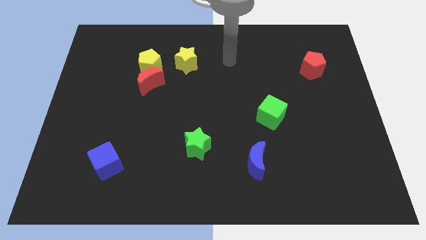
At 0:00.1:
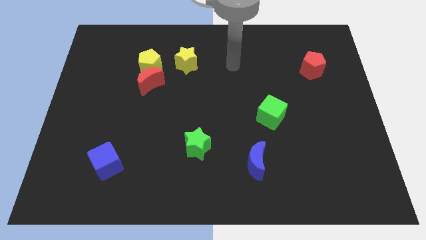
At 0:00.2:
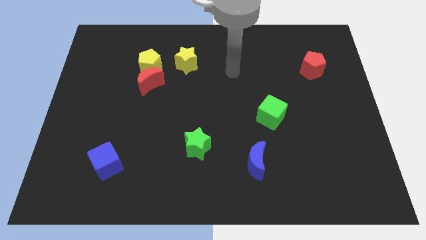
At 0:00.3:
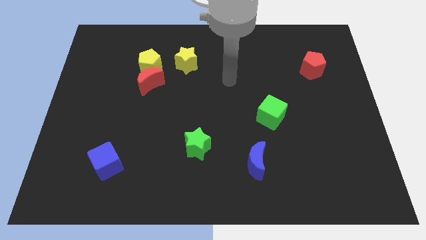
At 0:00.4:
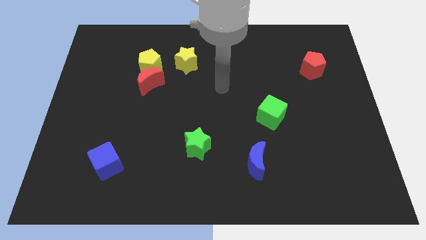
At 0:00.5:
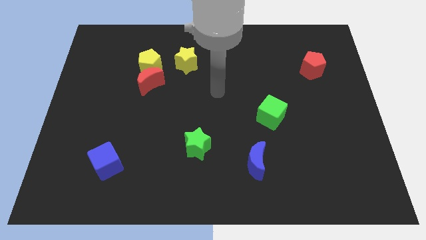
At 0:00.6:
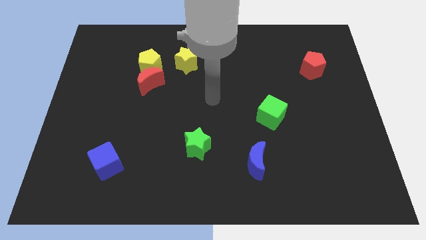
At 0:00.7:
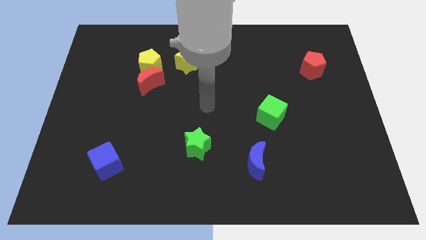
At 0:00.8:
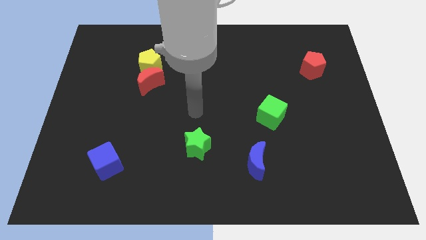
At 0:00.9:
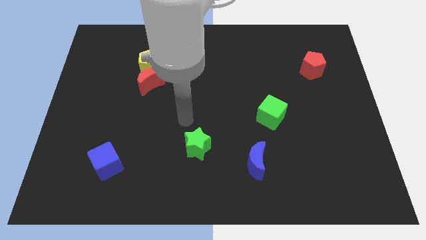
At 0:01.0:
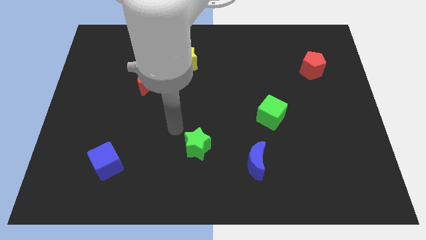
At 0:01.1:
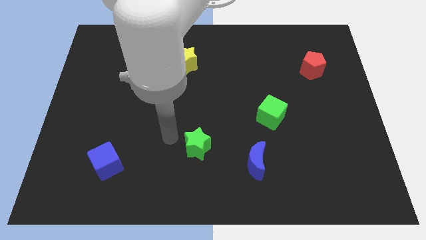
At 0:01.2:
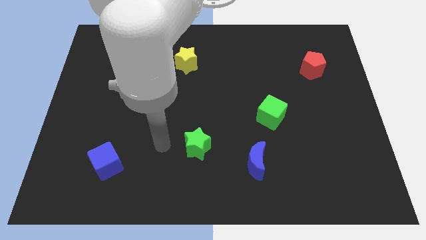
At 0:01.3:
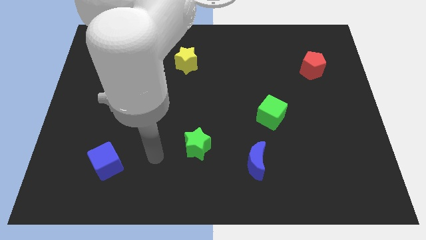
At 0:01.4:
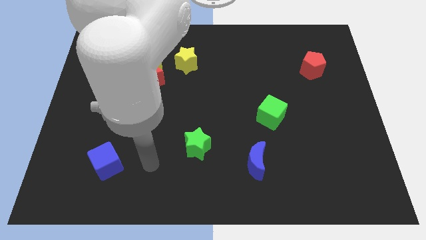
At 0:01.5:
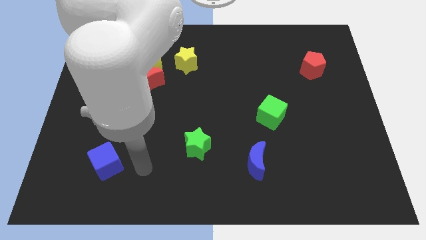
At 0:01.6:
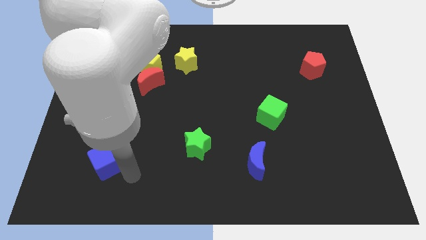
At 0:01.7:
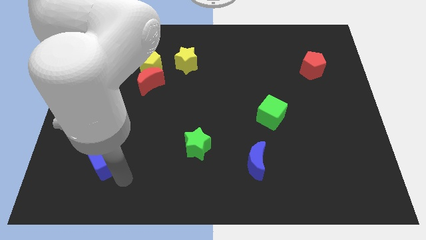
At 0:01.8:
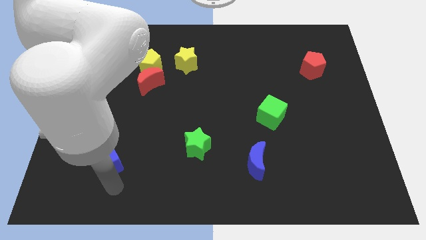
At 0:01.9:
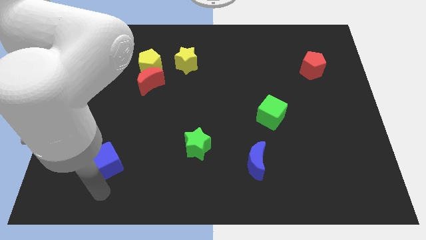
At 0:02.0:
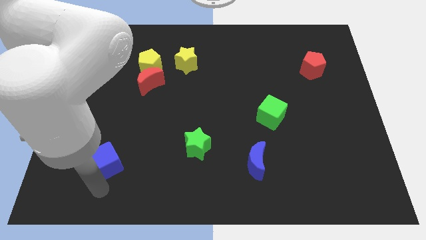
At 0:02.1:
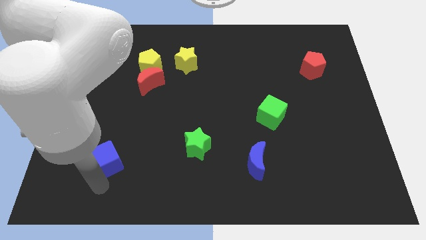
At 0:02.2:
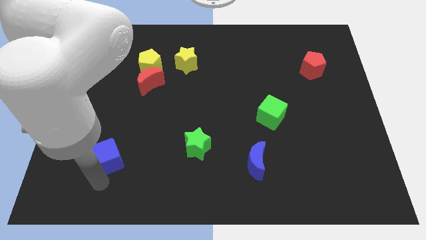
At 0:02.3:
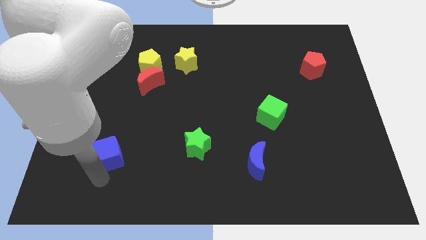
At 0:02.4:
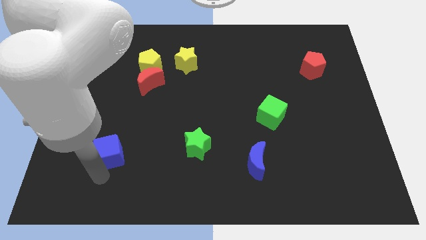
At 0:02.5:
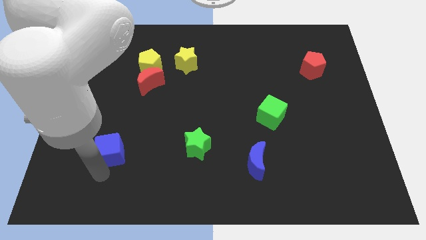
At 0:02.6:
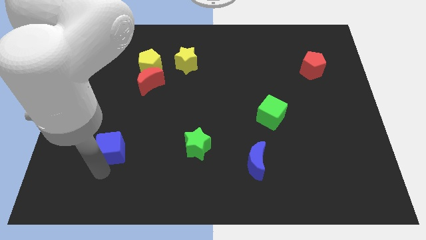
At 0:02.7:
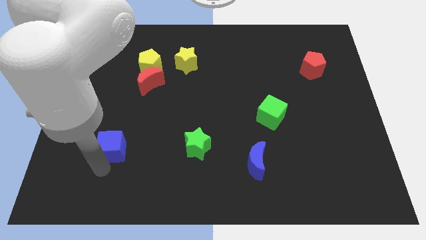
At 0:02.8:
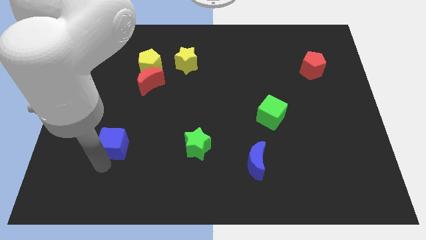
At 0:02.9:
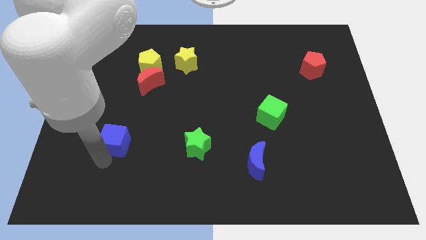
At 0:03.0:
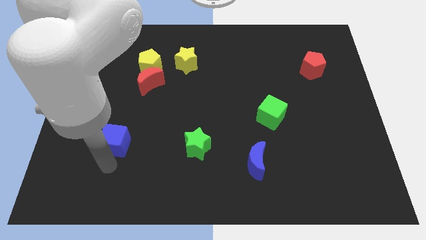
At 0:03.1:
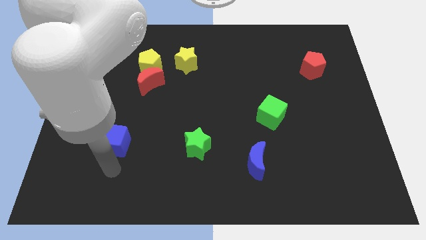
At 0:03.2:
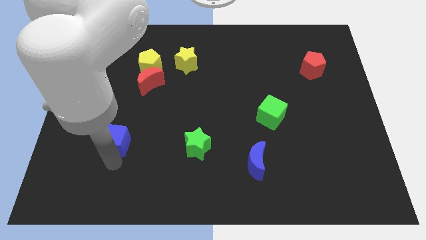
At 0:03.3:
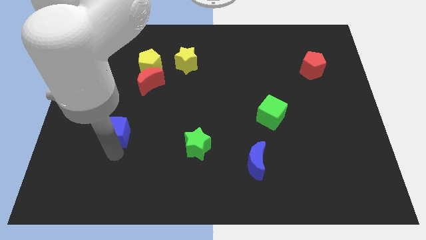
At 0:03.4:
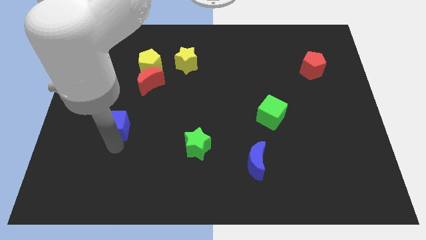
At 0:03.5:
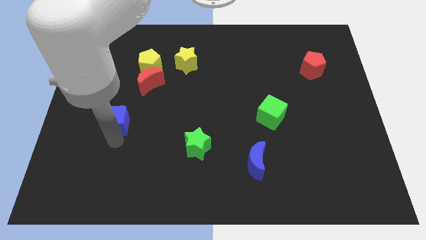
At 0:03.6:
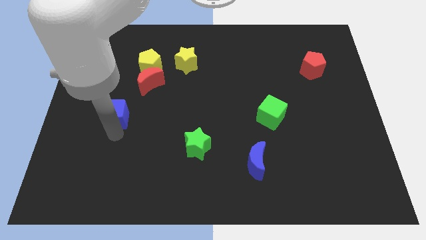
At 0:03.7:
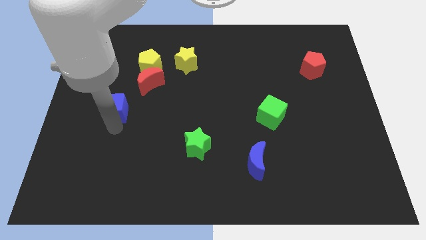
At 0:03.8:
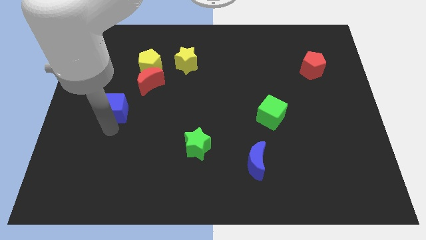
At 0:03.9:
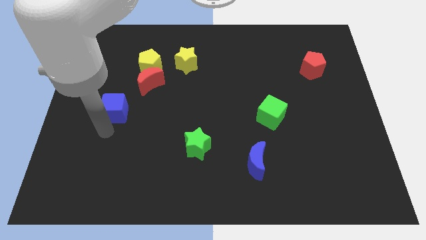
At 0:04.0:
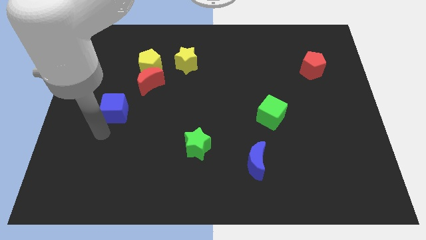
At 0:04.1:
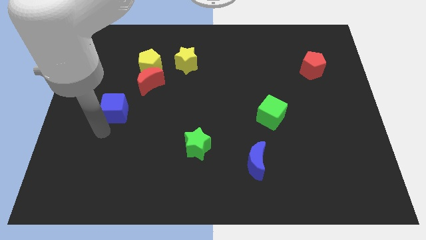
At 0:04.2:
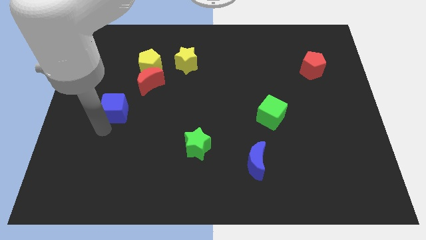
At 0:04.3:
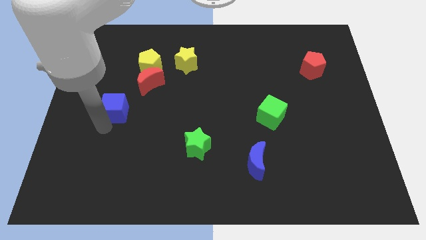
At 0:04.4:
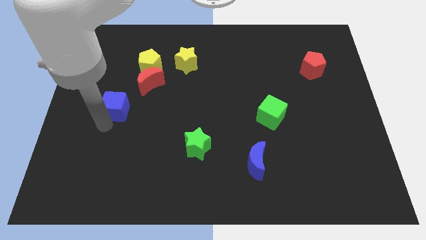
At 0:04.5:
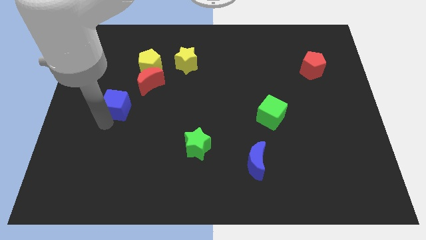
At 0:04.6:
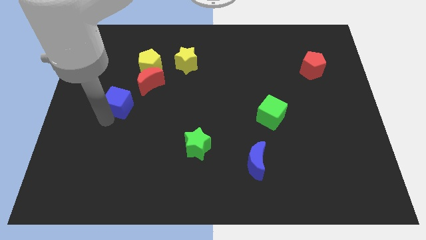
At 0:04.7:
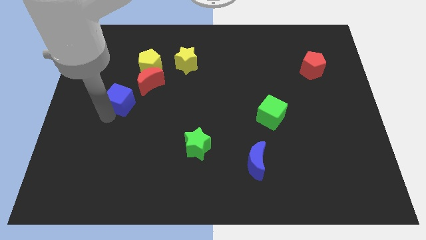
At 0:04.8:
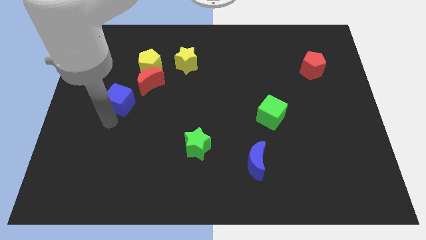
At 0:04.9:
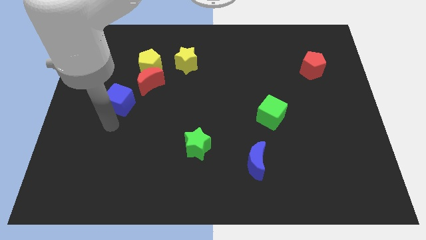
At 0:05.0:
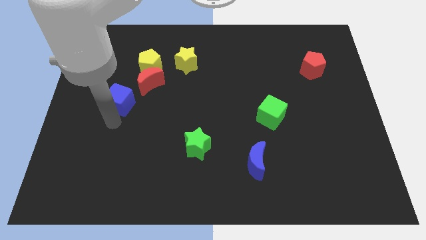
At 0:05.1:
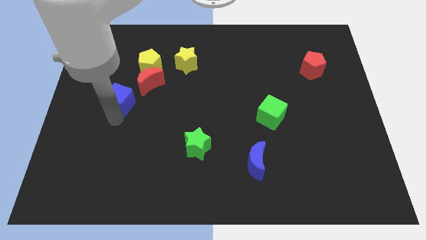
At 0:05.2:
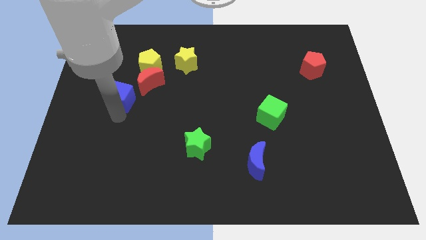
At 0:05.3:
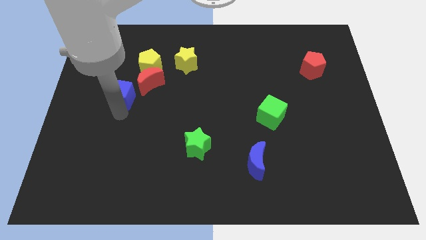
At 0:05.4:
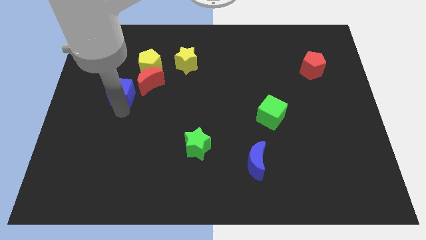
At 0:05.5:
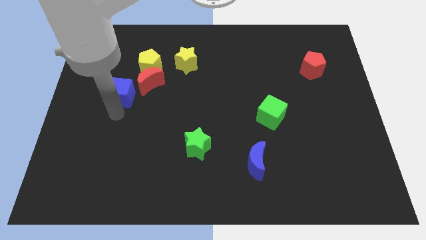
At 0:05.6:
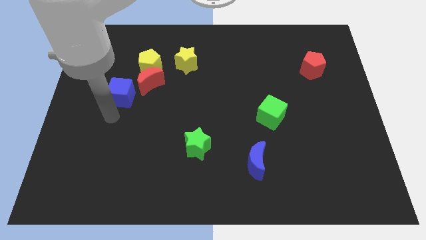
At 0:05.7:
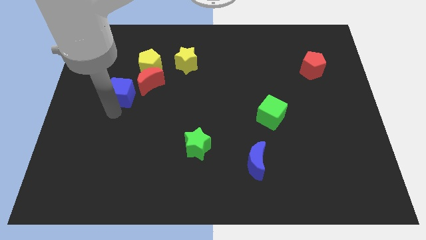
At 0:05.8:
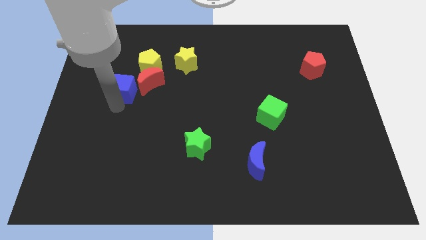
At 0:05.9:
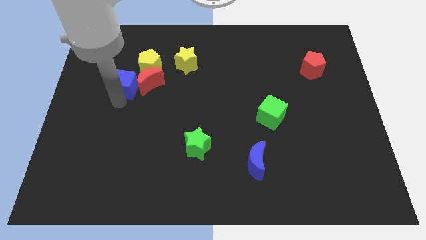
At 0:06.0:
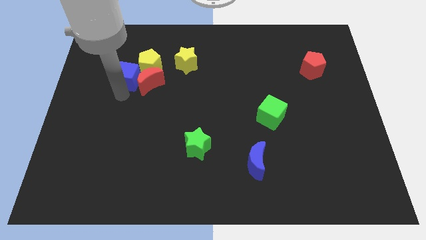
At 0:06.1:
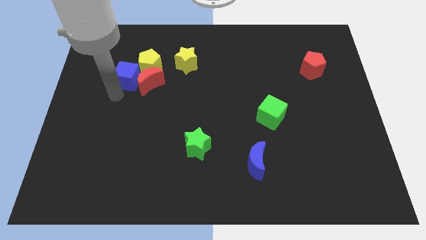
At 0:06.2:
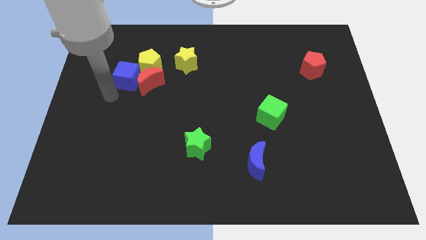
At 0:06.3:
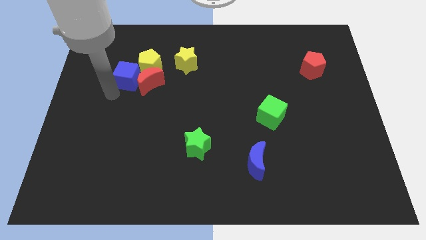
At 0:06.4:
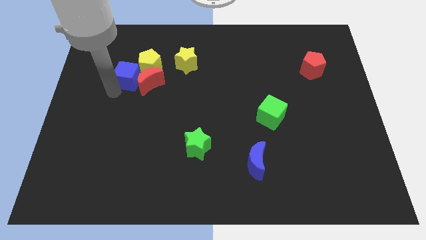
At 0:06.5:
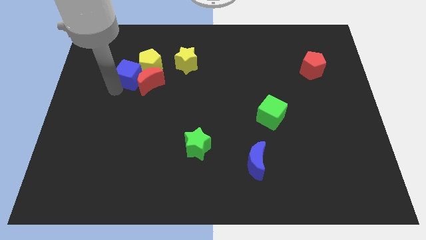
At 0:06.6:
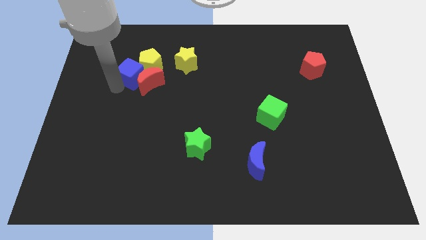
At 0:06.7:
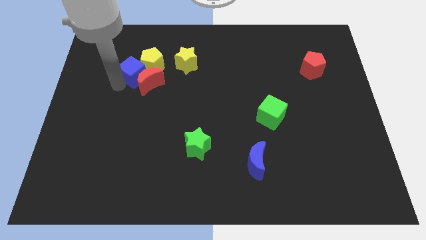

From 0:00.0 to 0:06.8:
slide the blue cube just left of the yellow star

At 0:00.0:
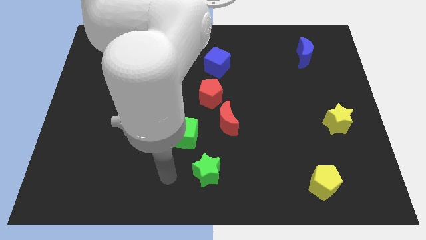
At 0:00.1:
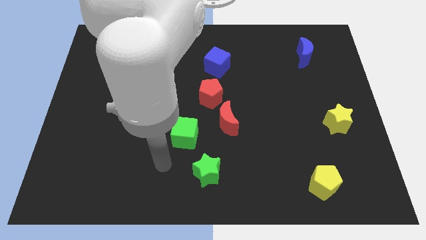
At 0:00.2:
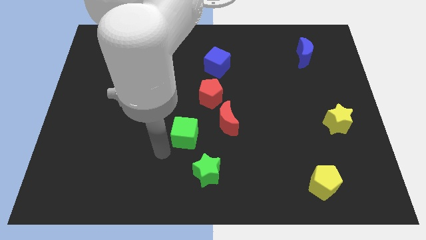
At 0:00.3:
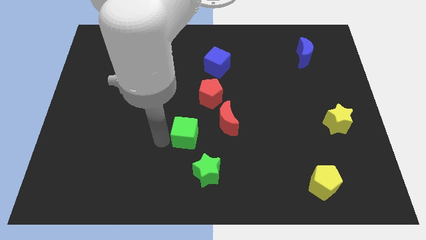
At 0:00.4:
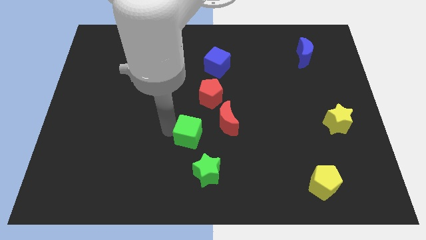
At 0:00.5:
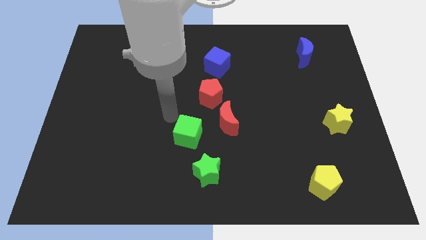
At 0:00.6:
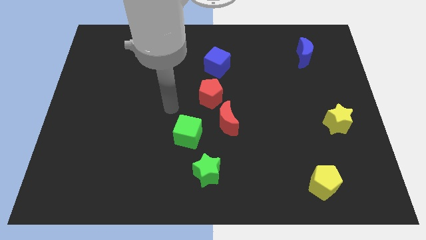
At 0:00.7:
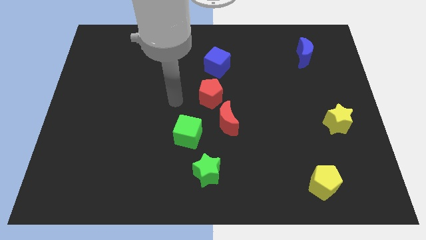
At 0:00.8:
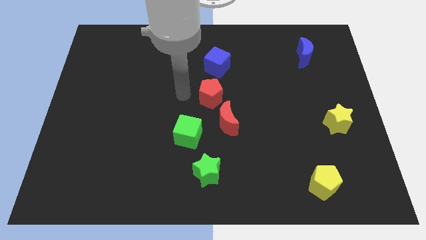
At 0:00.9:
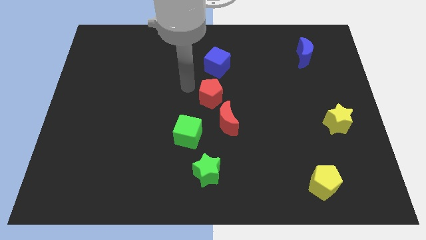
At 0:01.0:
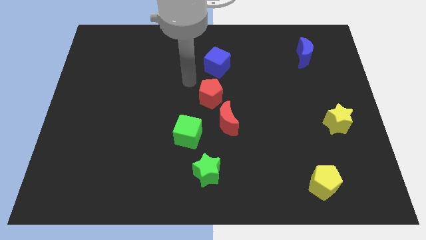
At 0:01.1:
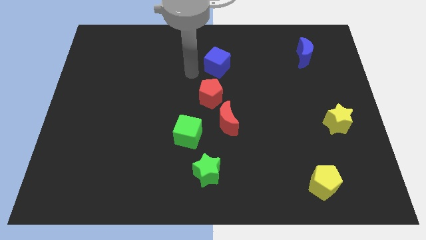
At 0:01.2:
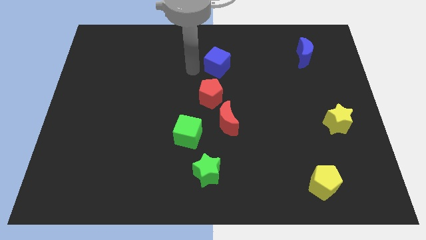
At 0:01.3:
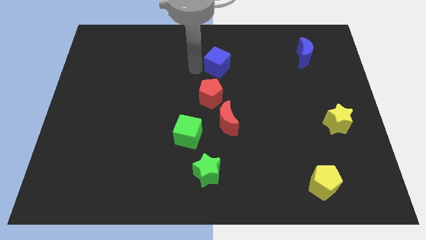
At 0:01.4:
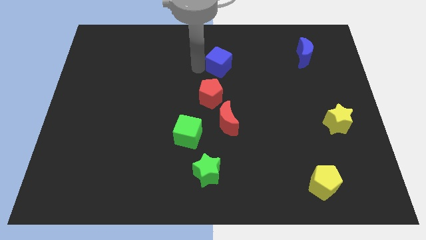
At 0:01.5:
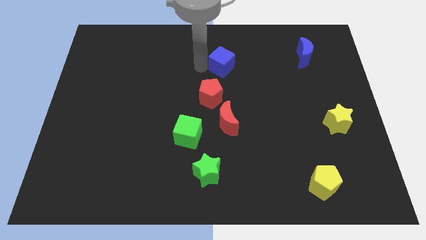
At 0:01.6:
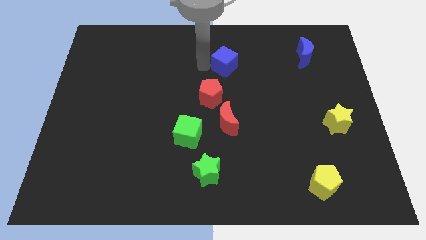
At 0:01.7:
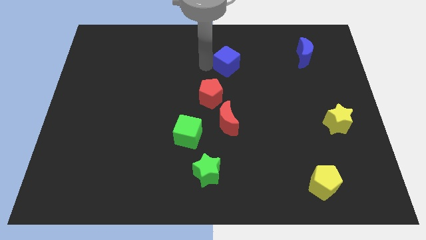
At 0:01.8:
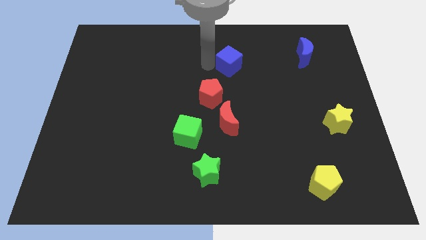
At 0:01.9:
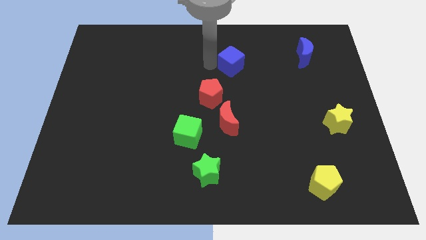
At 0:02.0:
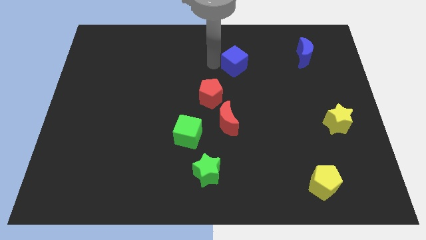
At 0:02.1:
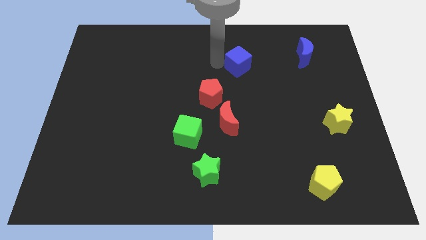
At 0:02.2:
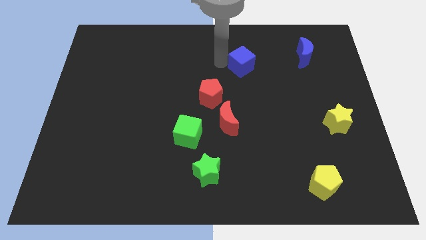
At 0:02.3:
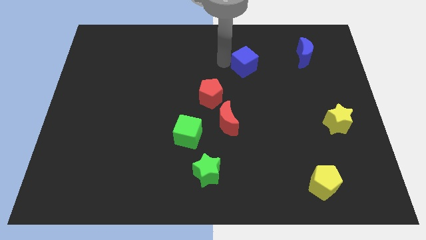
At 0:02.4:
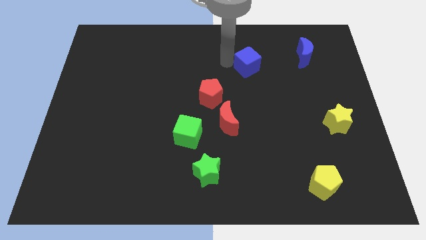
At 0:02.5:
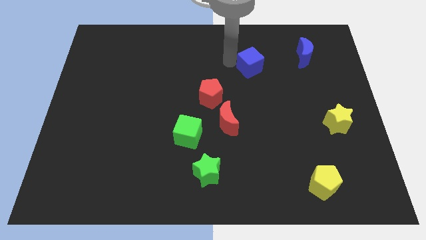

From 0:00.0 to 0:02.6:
move the blue cube just left of the blue moon
